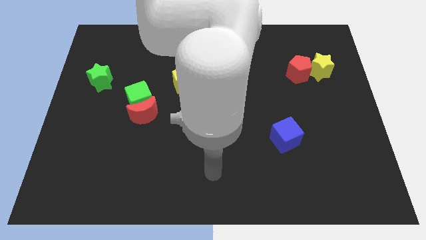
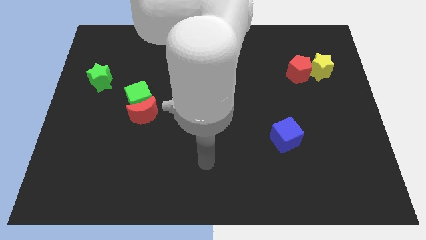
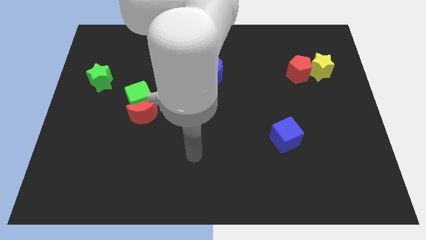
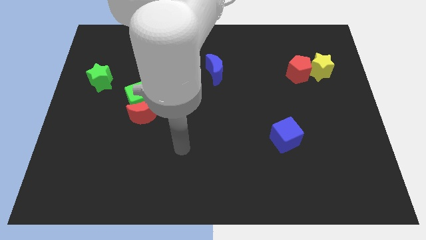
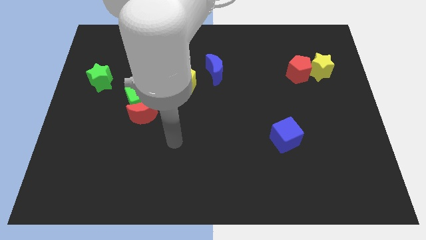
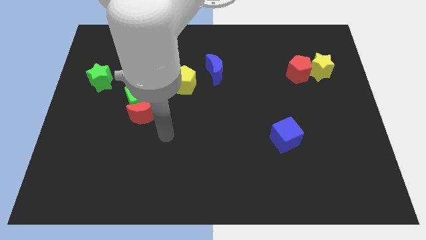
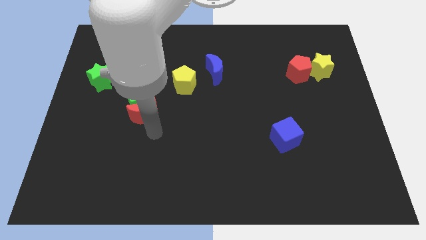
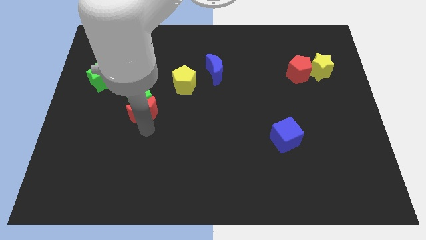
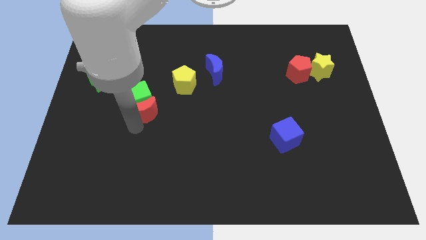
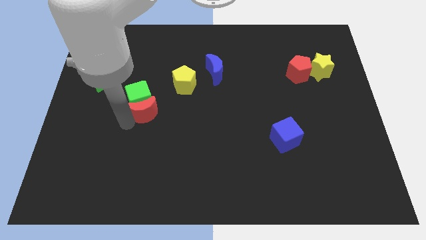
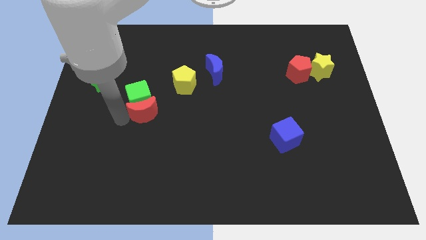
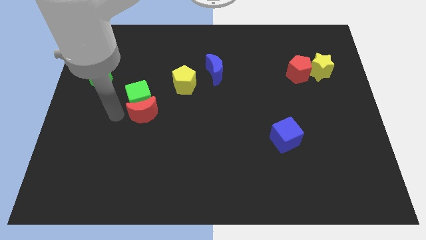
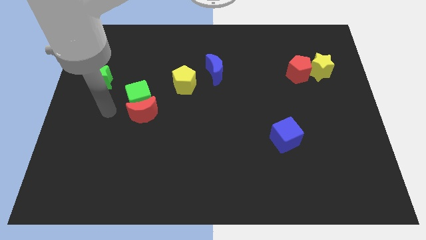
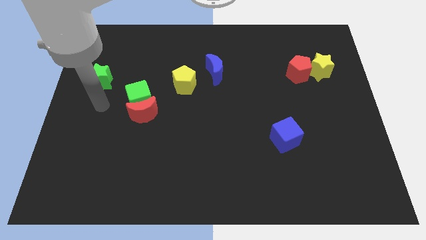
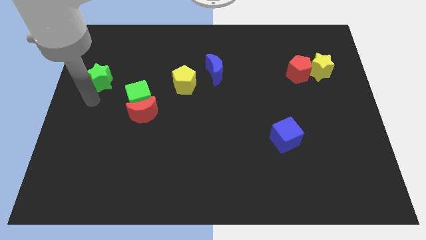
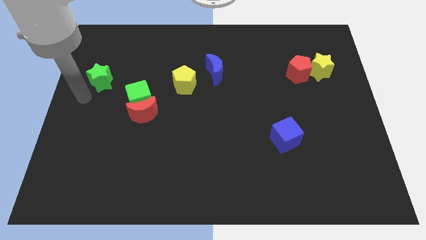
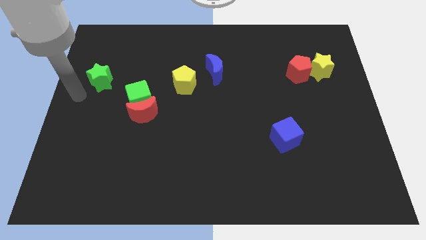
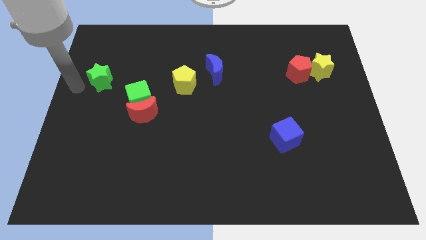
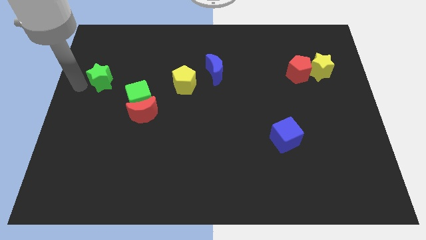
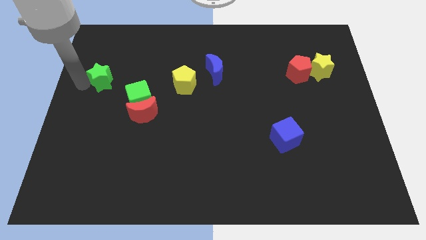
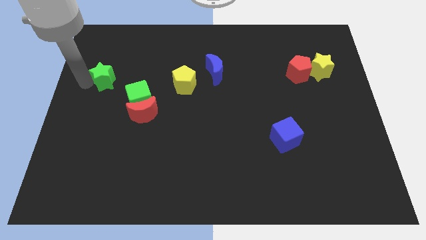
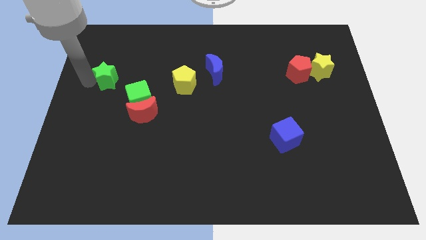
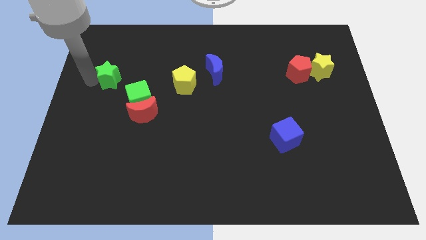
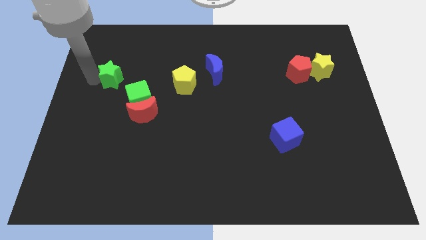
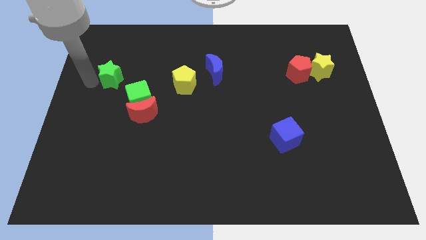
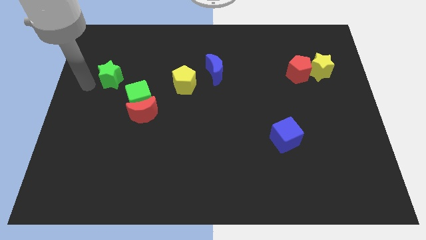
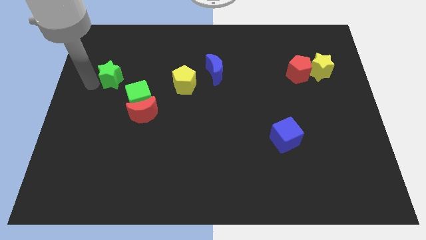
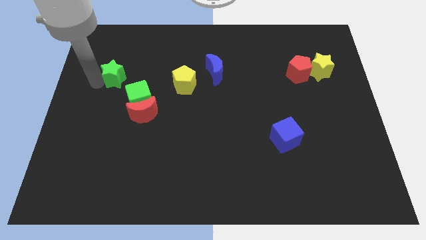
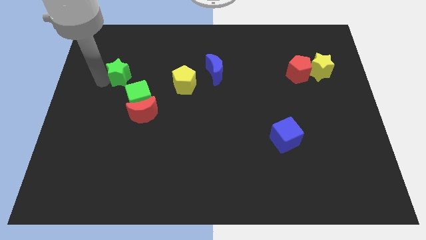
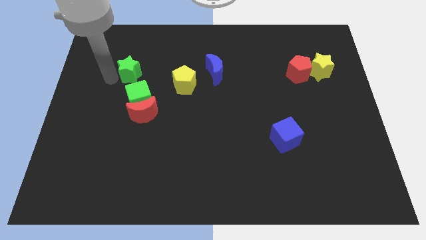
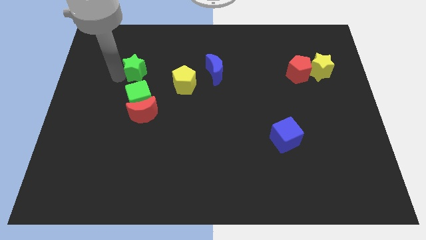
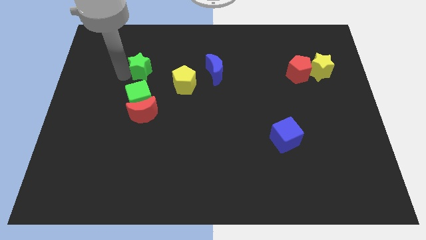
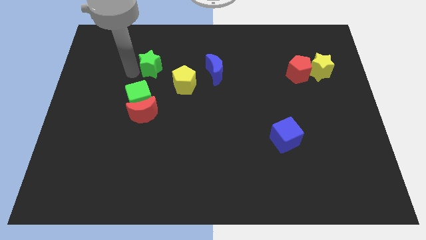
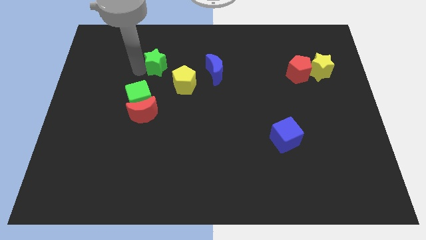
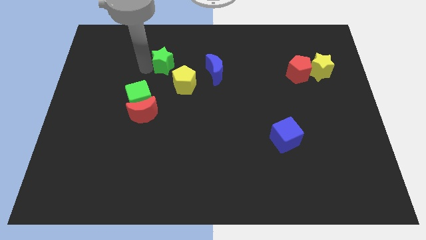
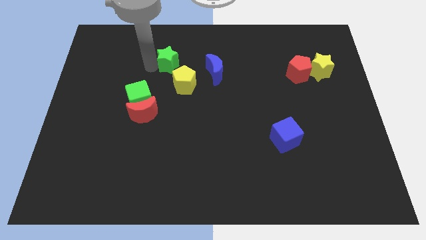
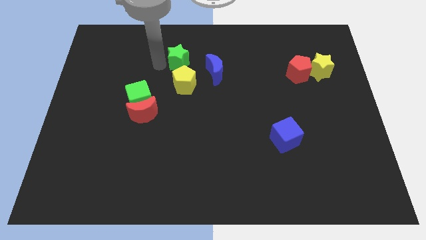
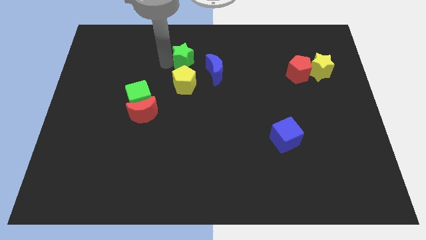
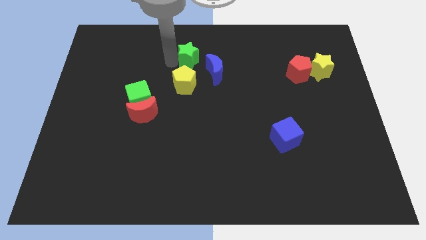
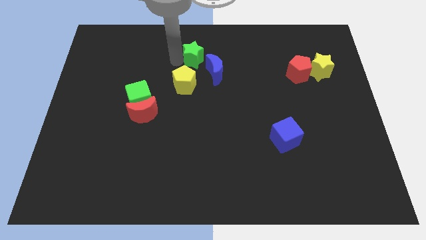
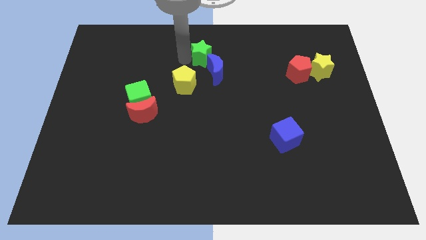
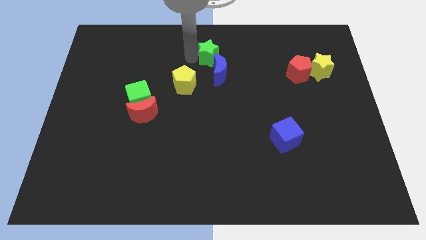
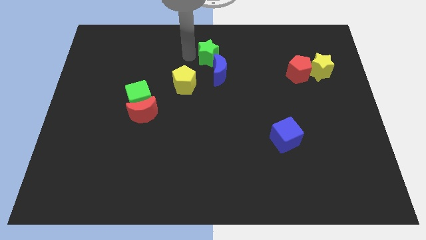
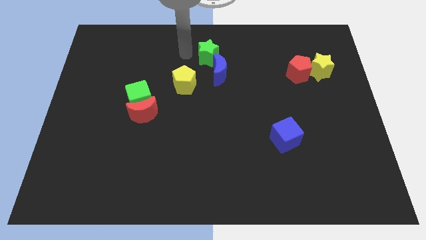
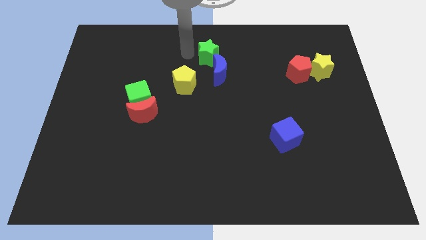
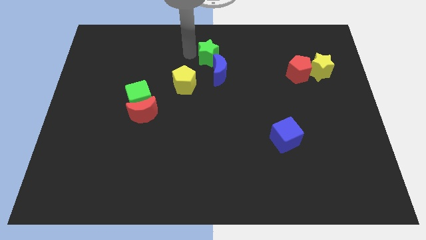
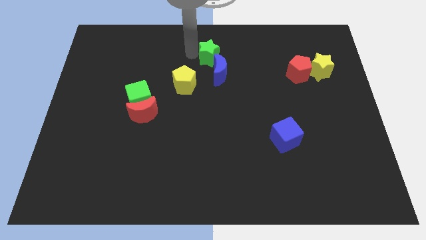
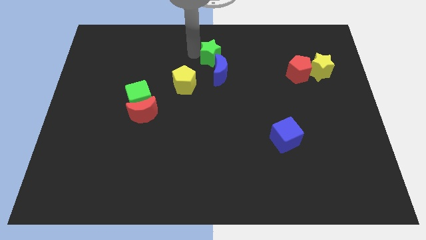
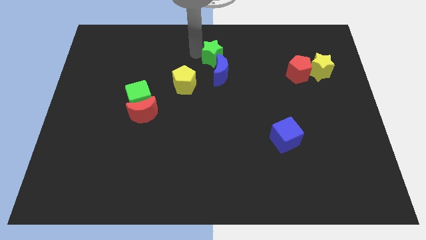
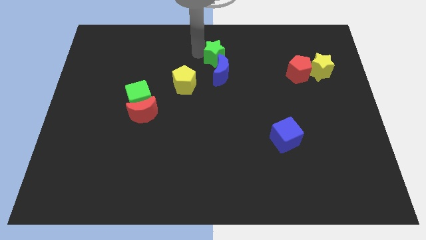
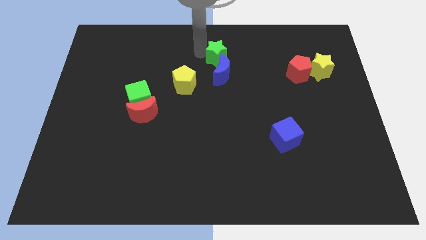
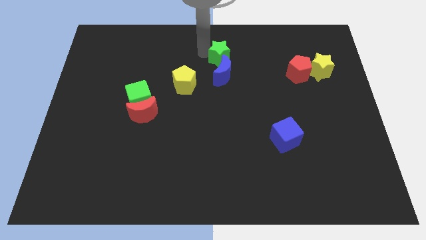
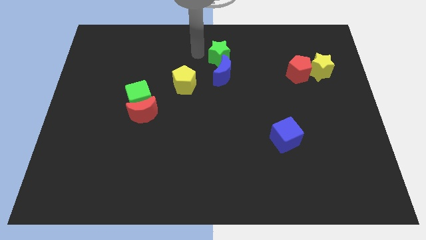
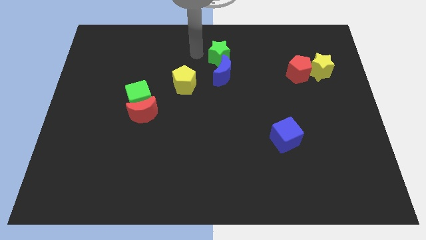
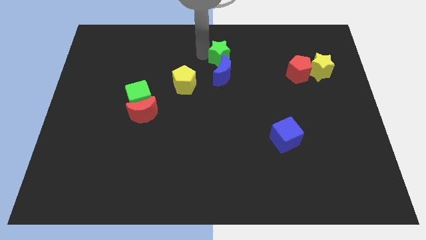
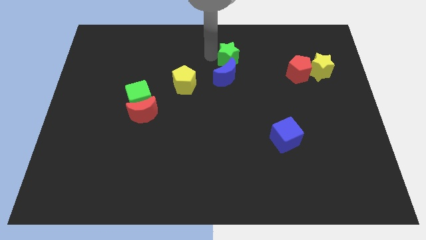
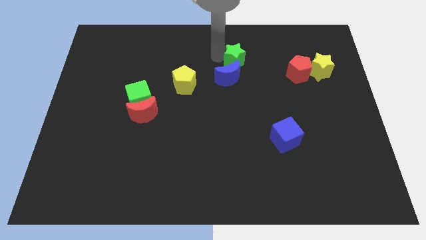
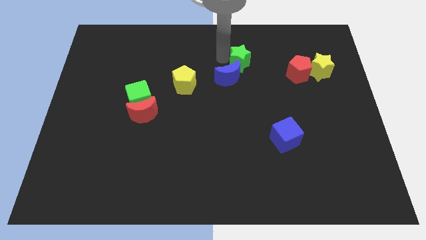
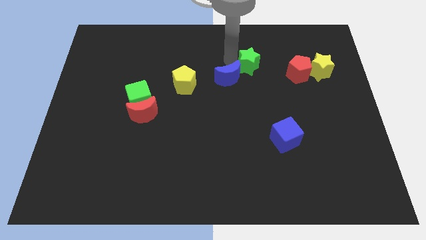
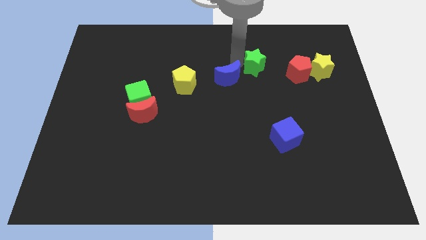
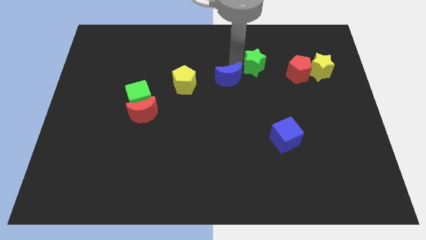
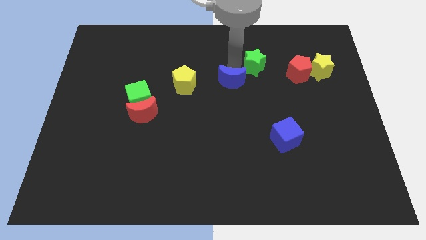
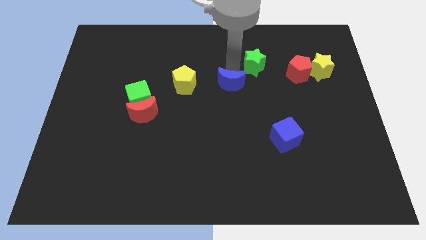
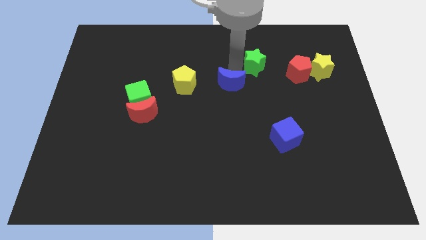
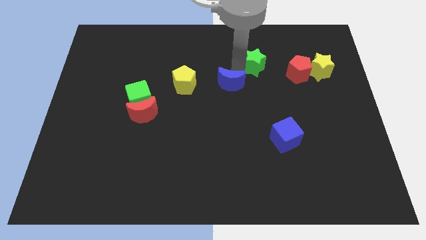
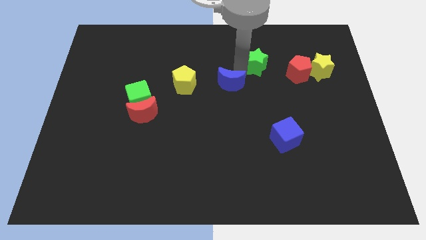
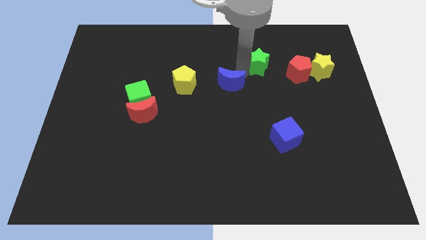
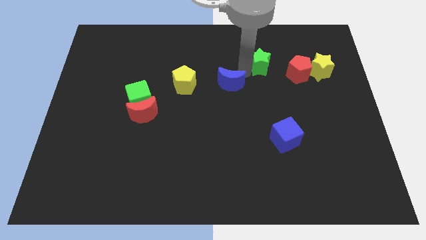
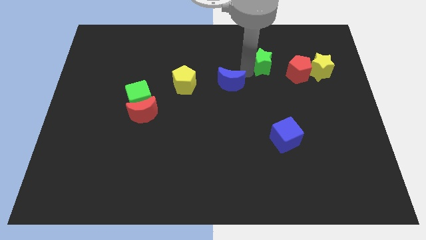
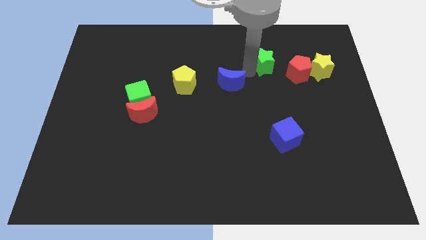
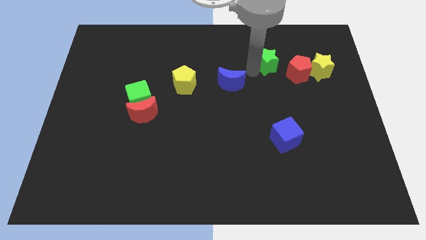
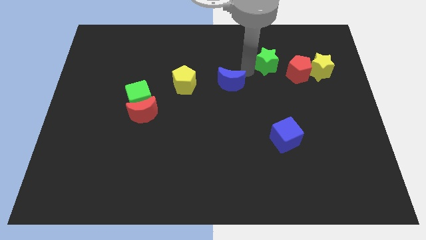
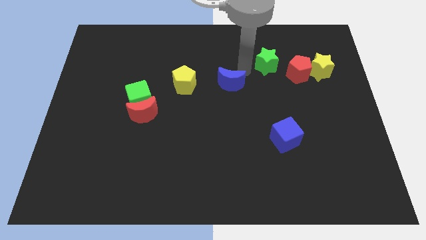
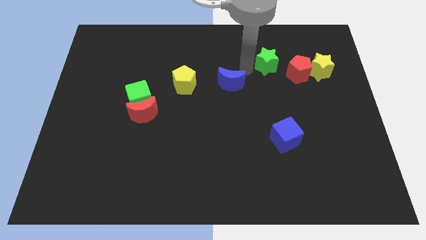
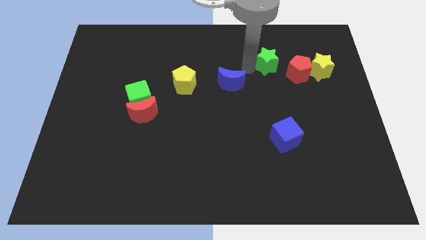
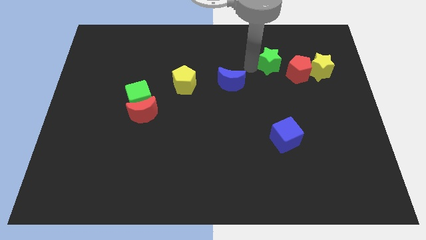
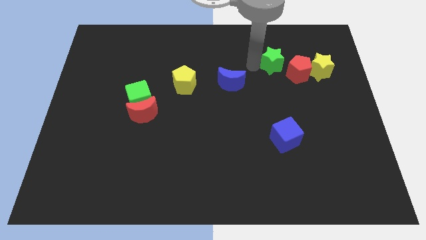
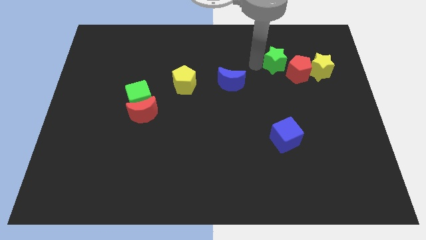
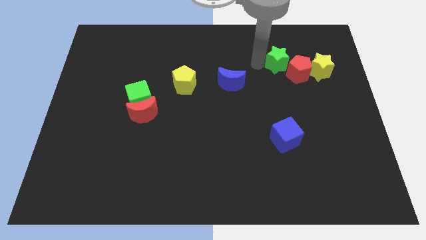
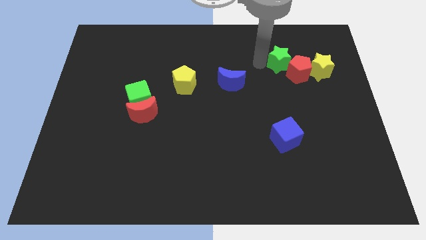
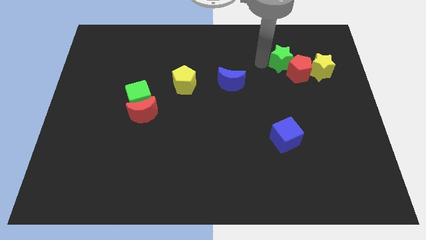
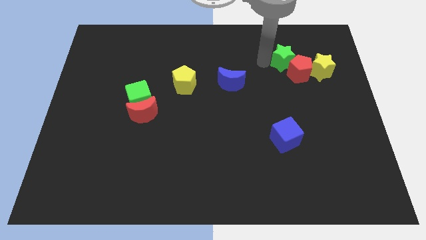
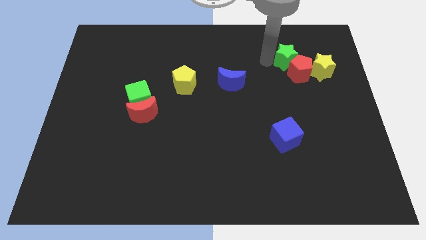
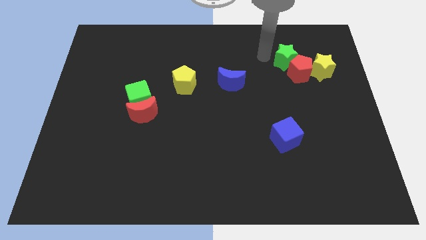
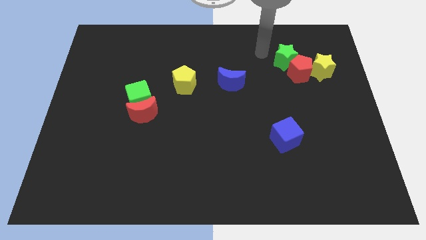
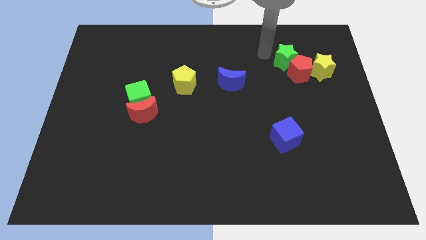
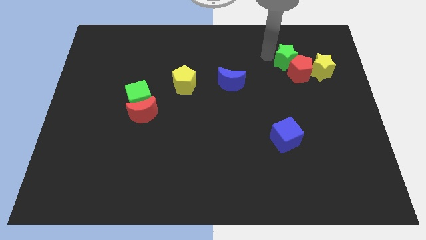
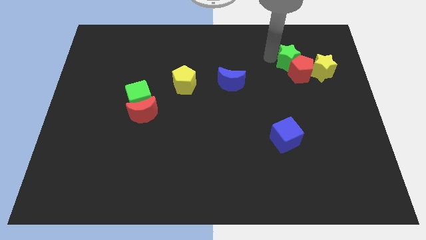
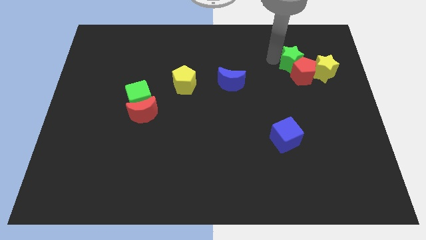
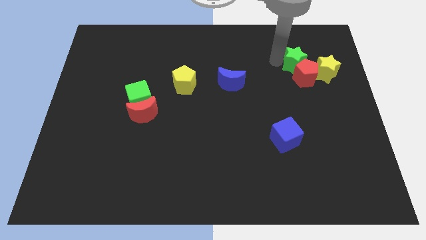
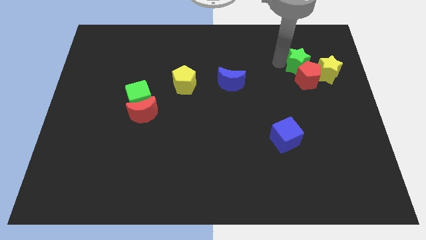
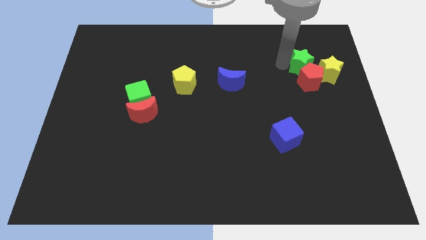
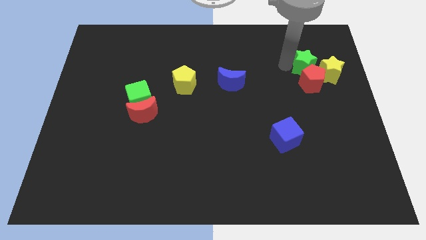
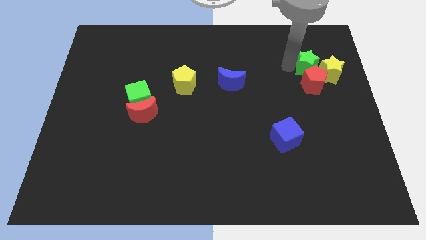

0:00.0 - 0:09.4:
put the green star close to the yellow star
